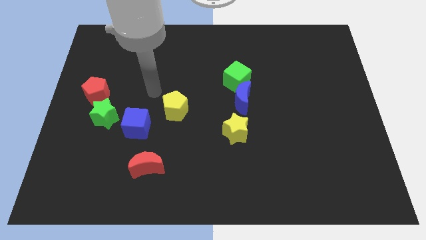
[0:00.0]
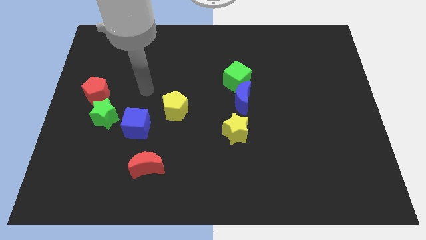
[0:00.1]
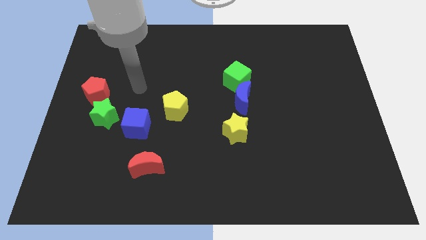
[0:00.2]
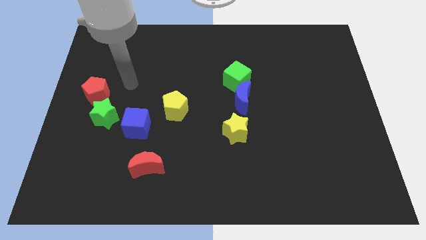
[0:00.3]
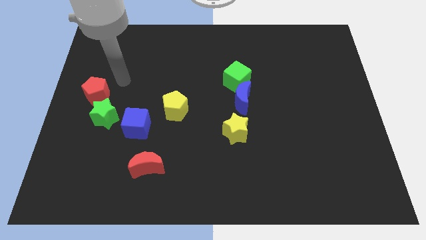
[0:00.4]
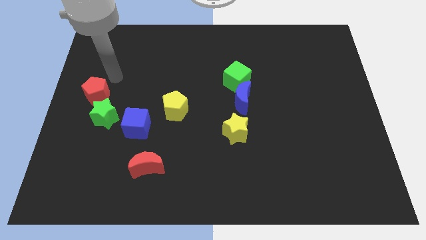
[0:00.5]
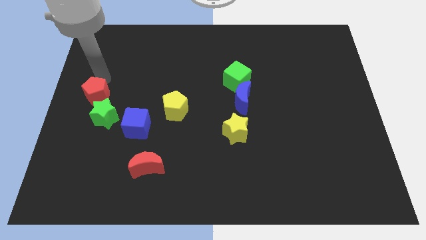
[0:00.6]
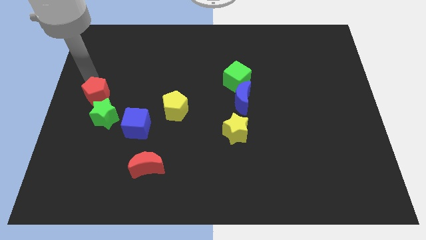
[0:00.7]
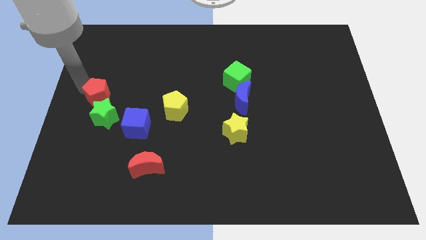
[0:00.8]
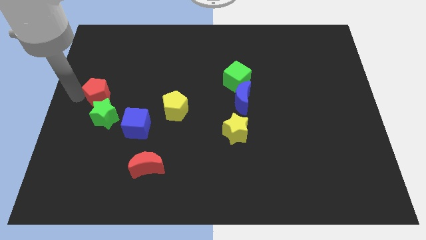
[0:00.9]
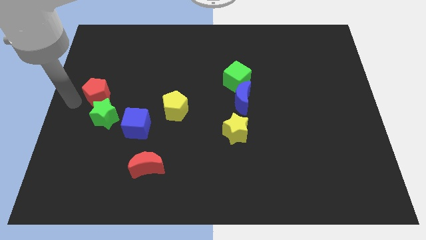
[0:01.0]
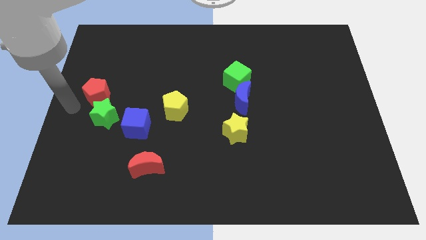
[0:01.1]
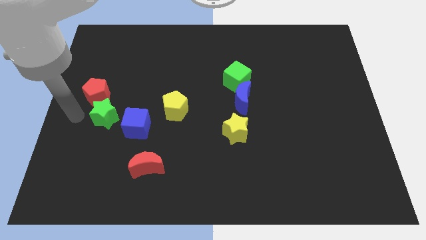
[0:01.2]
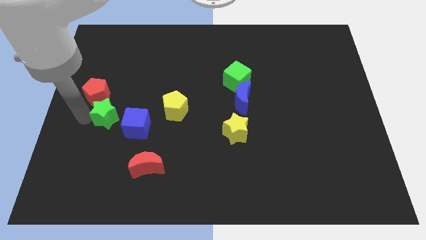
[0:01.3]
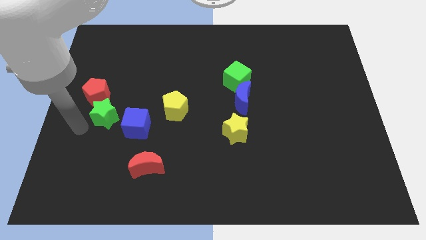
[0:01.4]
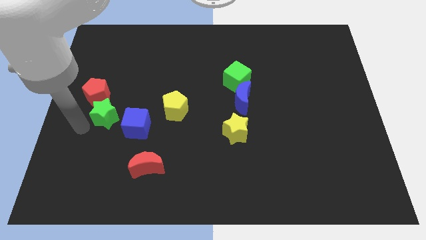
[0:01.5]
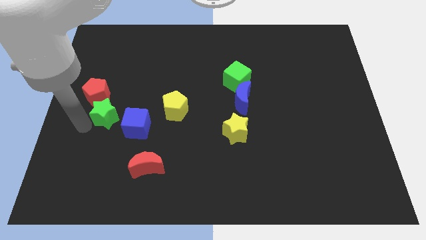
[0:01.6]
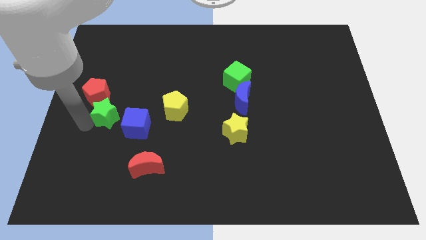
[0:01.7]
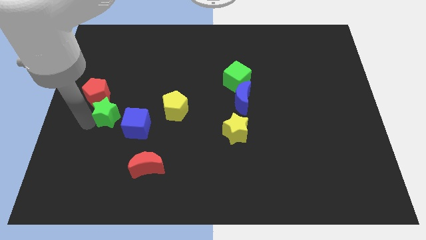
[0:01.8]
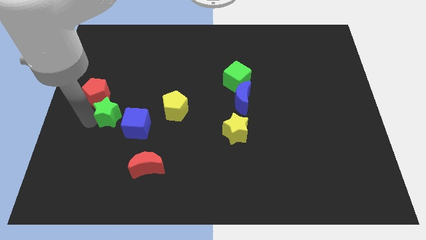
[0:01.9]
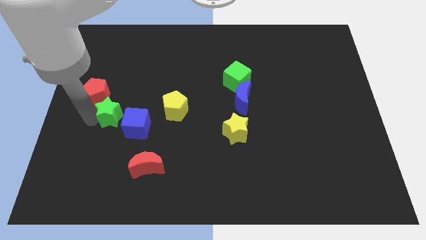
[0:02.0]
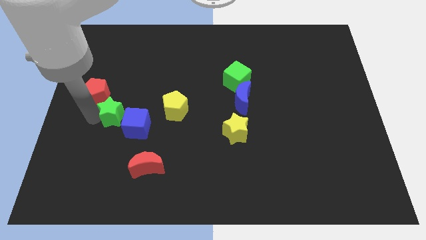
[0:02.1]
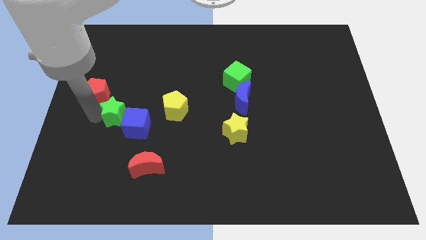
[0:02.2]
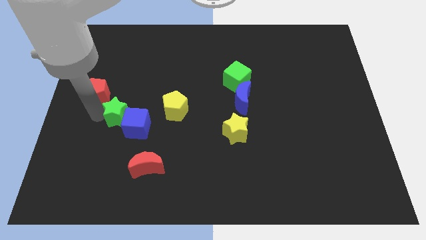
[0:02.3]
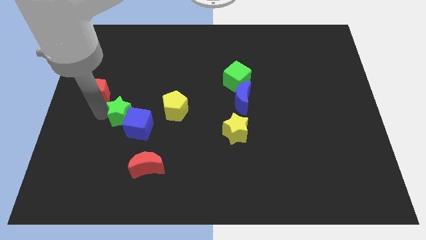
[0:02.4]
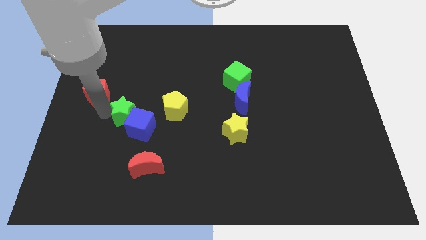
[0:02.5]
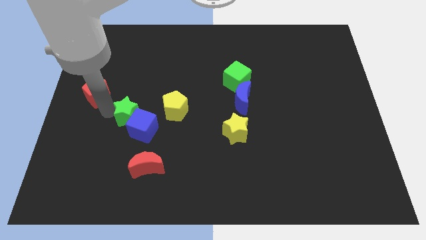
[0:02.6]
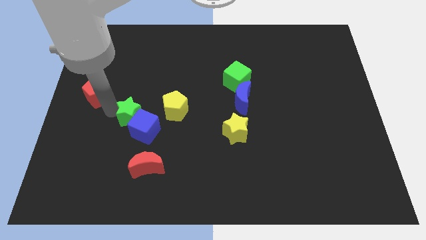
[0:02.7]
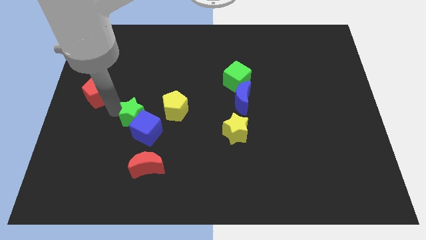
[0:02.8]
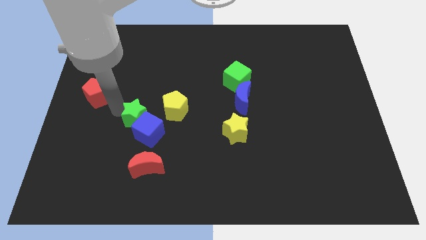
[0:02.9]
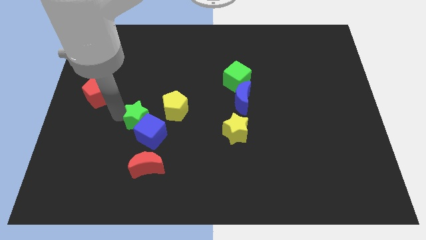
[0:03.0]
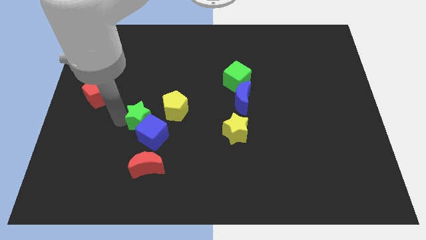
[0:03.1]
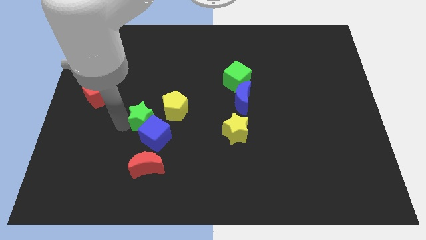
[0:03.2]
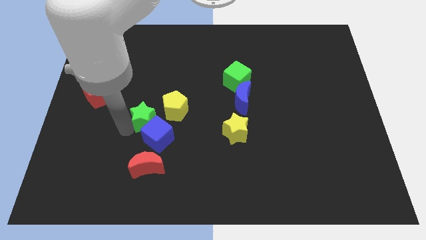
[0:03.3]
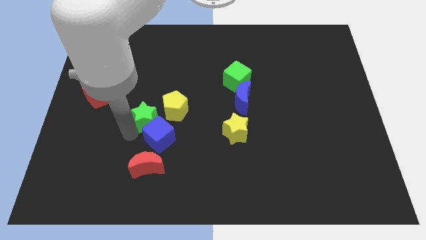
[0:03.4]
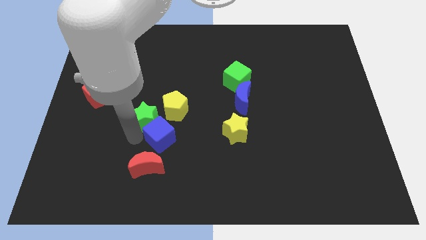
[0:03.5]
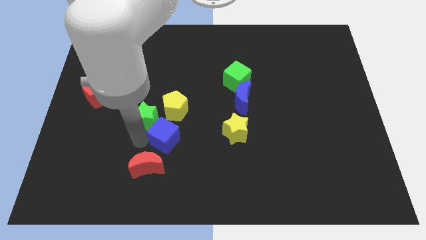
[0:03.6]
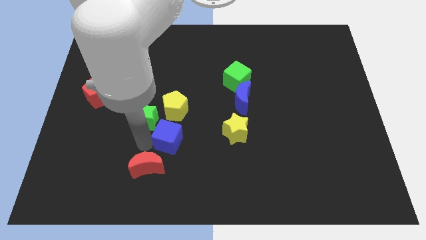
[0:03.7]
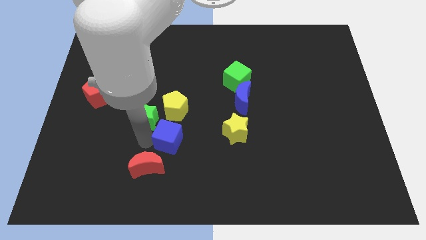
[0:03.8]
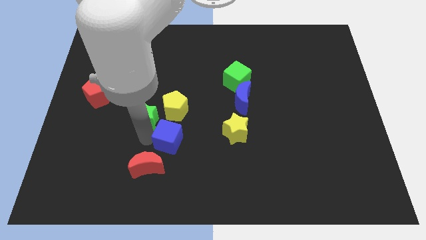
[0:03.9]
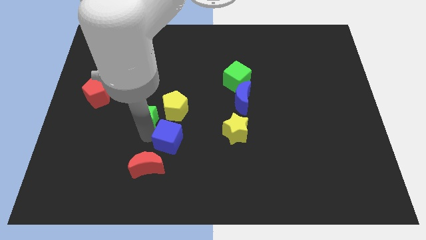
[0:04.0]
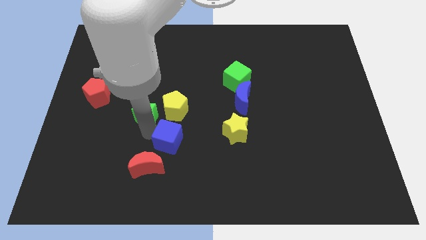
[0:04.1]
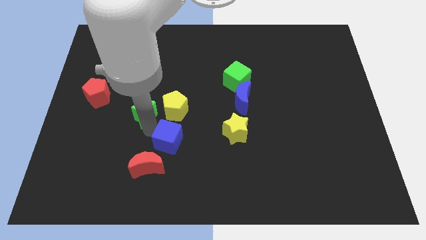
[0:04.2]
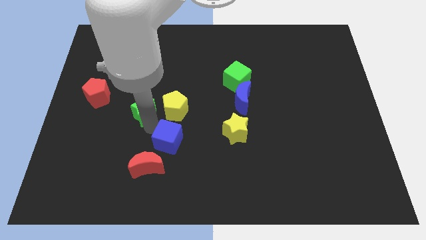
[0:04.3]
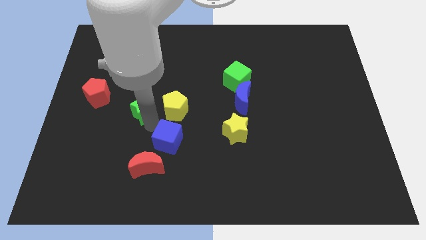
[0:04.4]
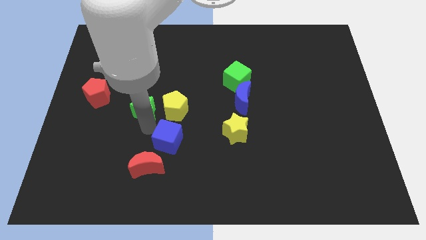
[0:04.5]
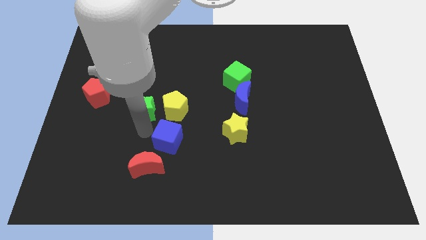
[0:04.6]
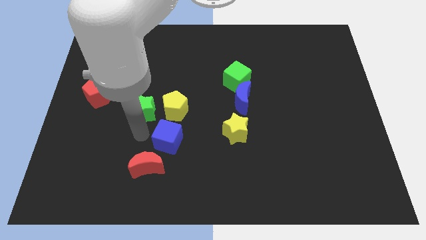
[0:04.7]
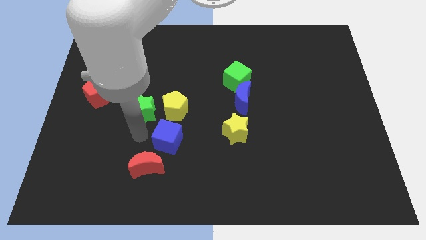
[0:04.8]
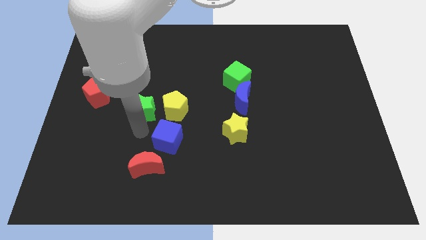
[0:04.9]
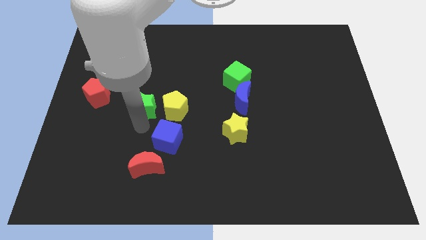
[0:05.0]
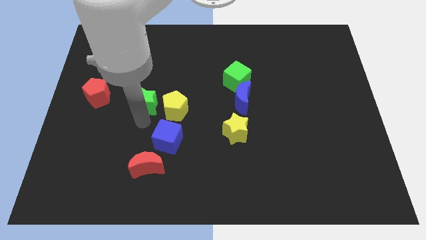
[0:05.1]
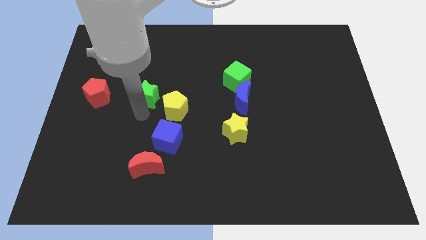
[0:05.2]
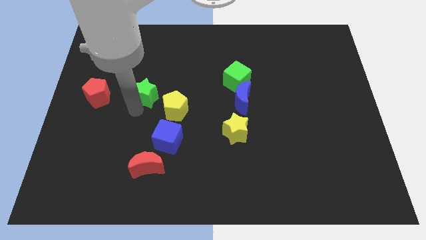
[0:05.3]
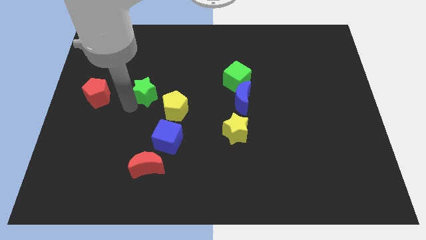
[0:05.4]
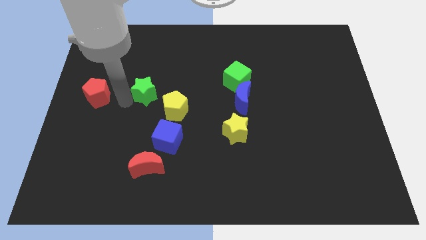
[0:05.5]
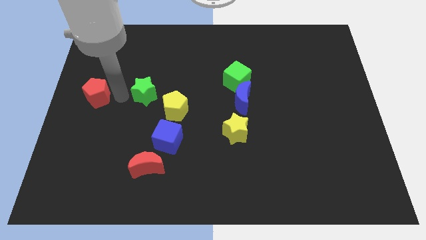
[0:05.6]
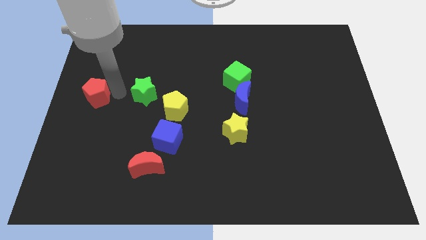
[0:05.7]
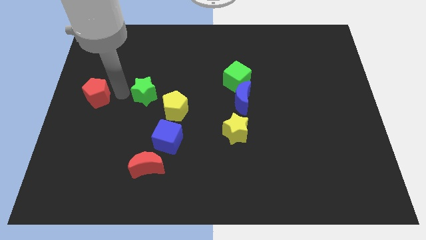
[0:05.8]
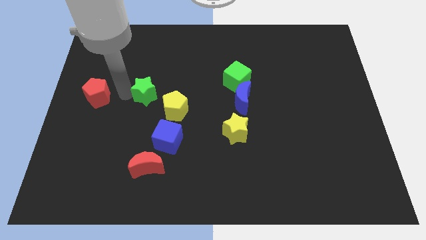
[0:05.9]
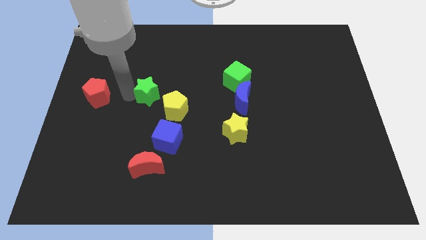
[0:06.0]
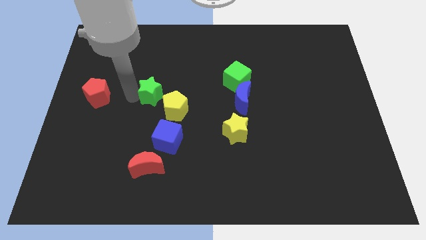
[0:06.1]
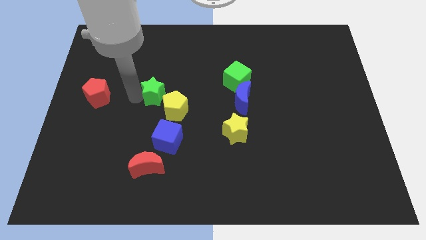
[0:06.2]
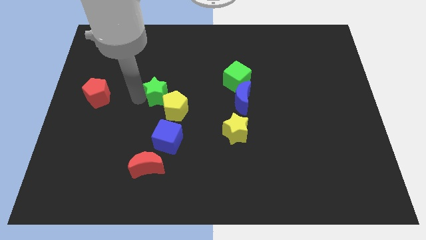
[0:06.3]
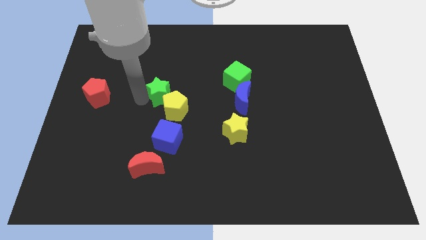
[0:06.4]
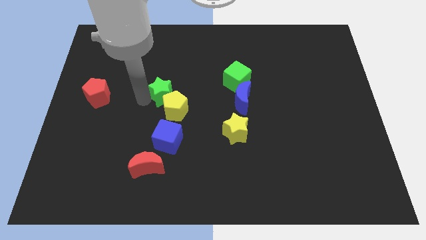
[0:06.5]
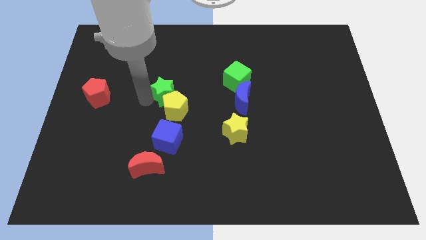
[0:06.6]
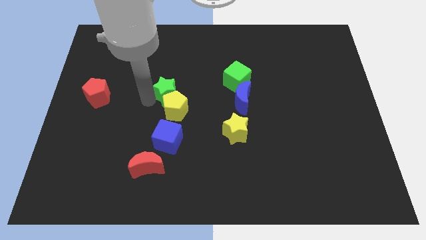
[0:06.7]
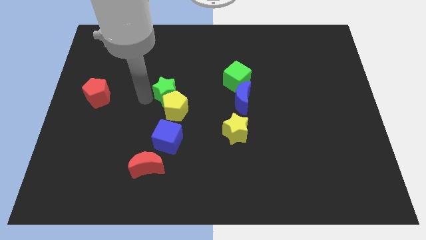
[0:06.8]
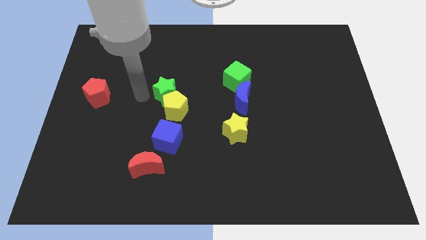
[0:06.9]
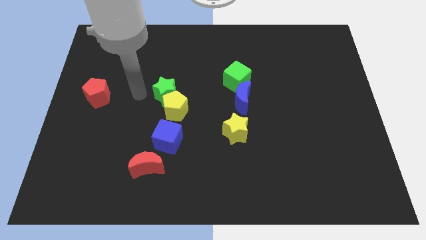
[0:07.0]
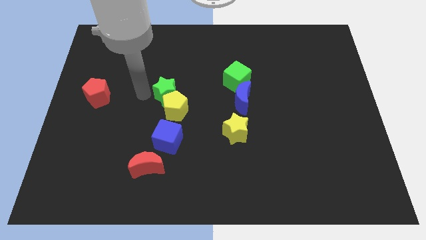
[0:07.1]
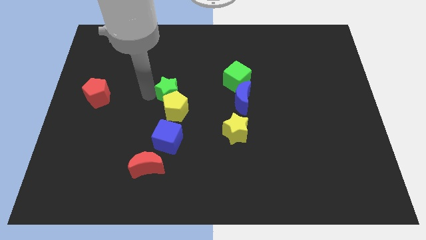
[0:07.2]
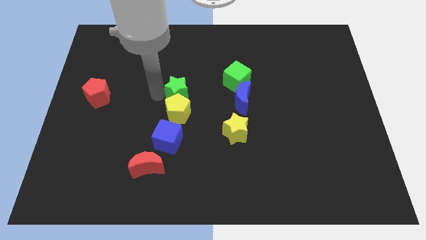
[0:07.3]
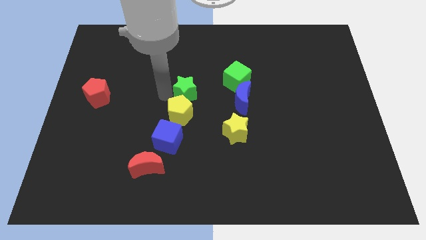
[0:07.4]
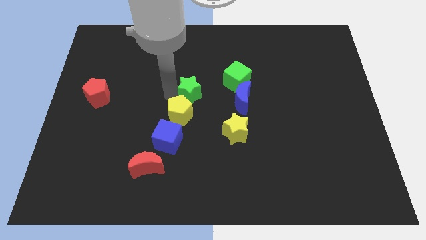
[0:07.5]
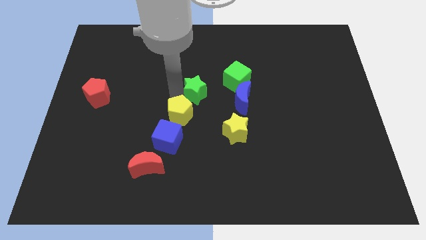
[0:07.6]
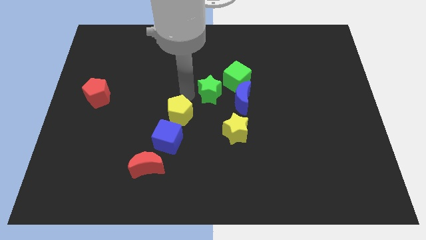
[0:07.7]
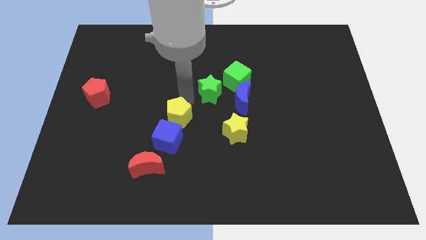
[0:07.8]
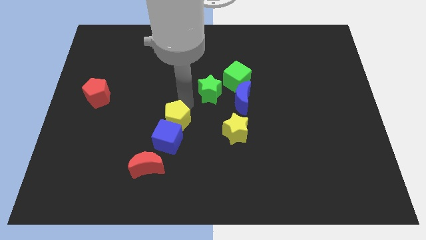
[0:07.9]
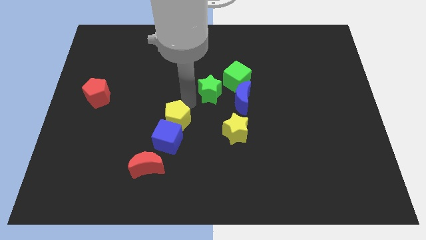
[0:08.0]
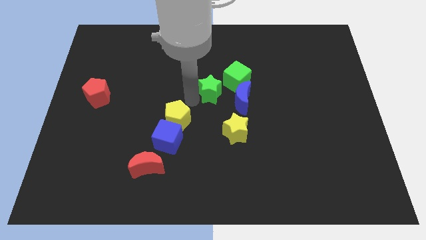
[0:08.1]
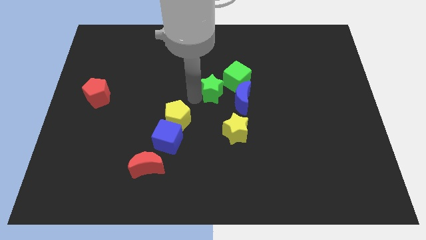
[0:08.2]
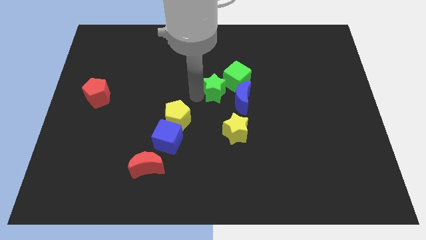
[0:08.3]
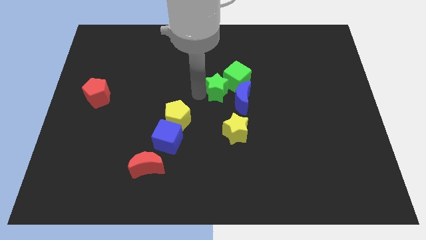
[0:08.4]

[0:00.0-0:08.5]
put the green star to the green cube
